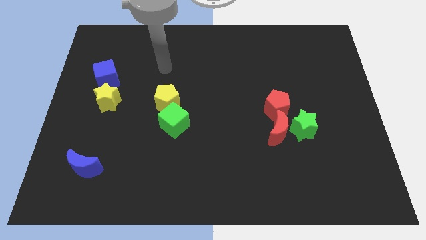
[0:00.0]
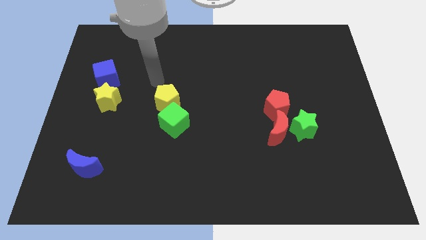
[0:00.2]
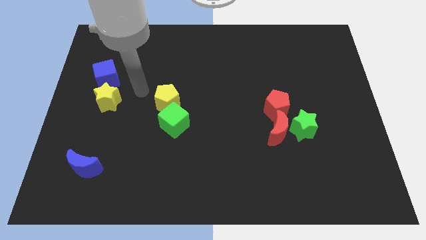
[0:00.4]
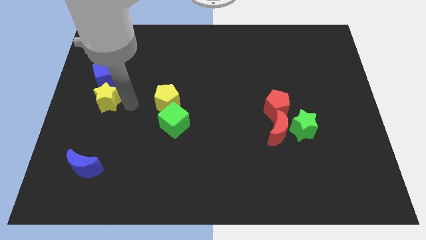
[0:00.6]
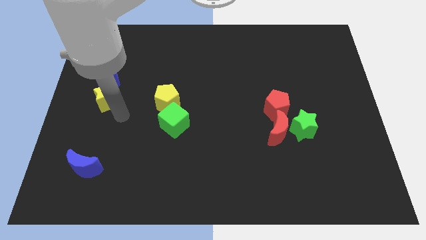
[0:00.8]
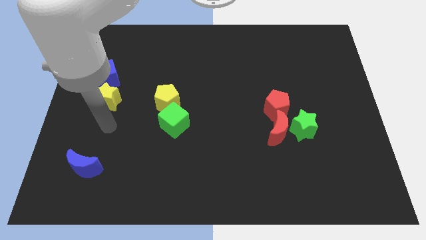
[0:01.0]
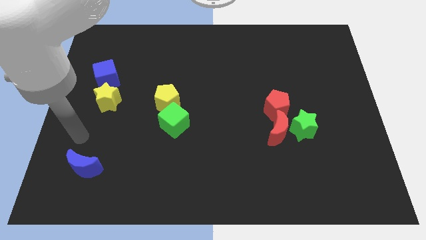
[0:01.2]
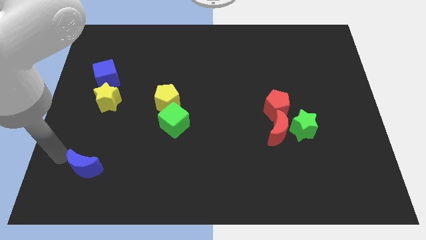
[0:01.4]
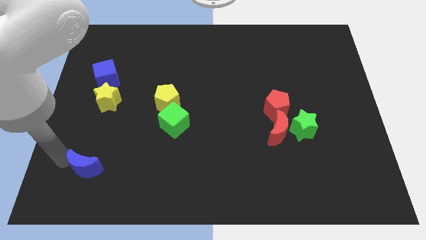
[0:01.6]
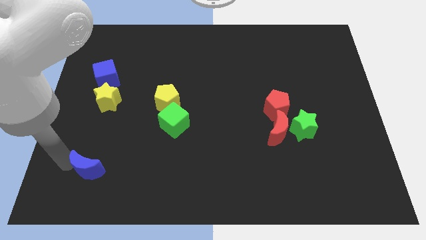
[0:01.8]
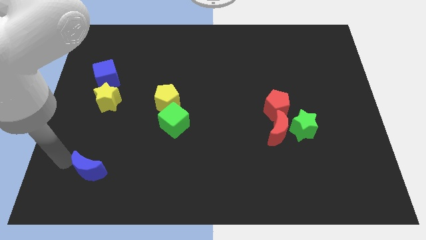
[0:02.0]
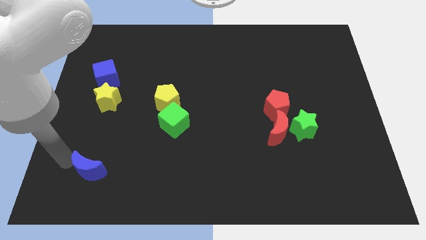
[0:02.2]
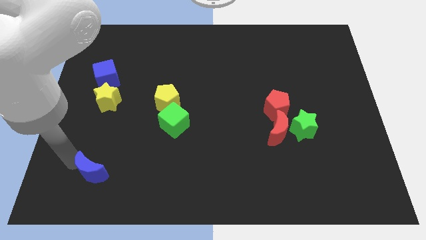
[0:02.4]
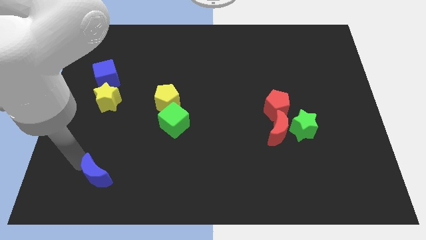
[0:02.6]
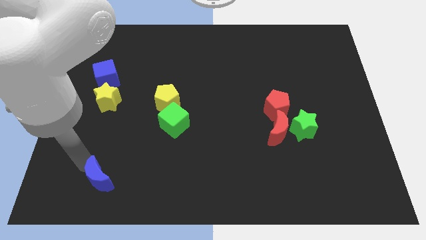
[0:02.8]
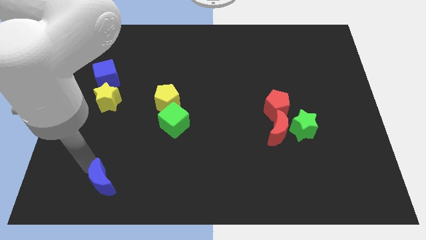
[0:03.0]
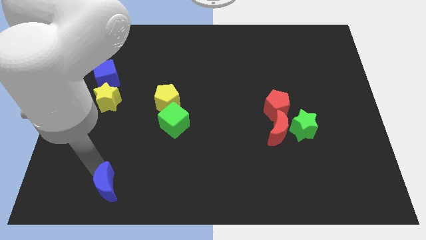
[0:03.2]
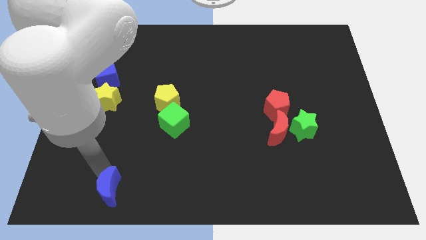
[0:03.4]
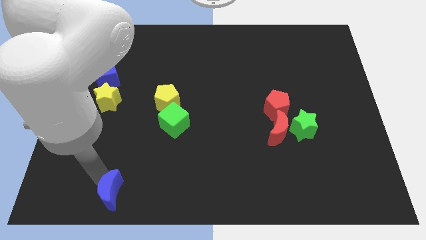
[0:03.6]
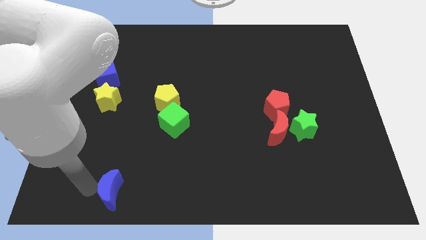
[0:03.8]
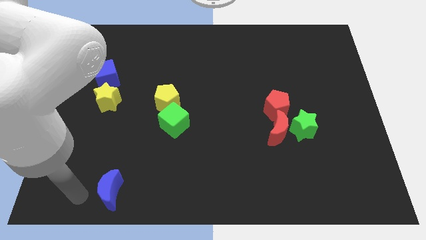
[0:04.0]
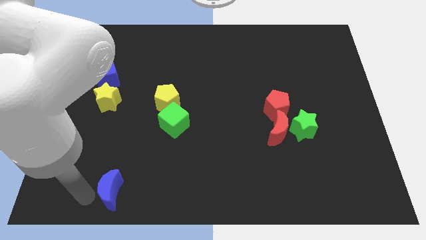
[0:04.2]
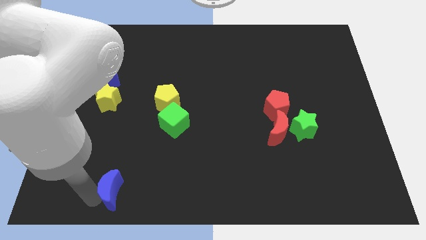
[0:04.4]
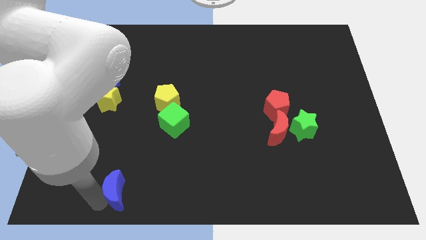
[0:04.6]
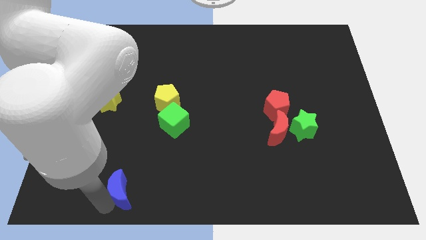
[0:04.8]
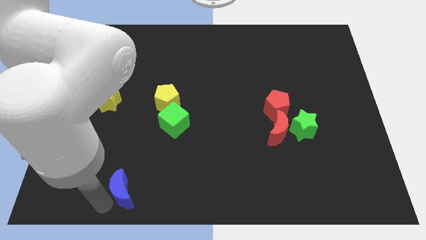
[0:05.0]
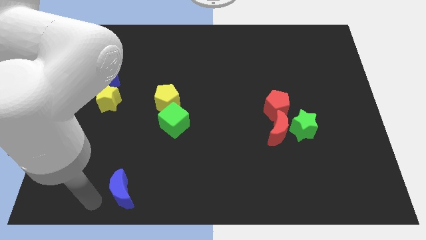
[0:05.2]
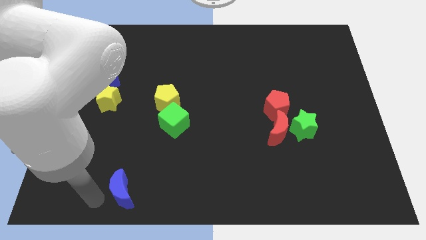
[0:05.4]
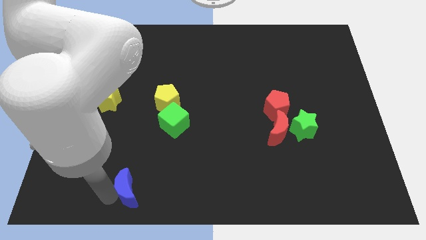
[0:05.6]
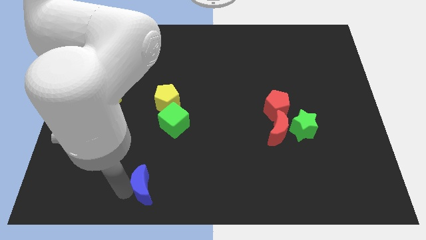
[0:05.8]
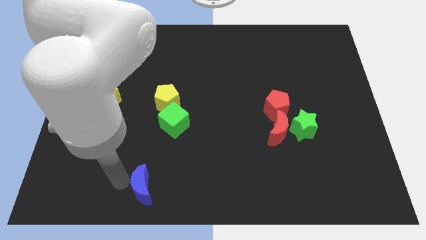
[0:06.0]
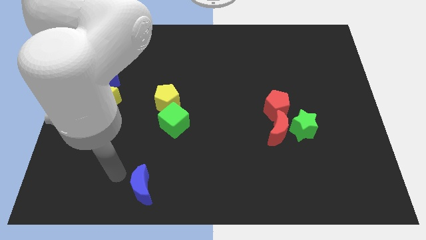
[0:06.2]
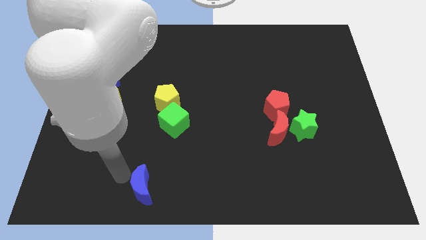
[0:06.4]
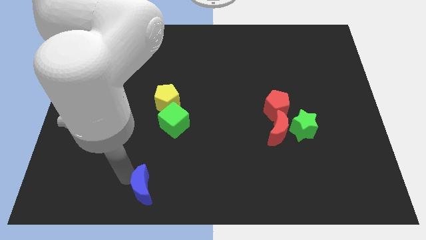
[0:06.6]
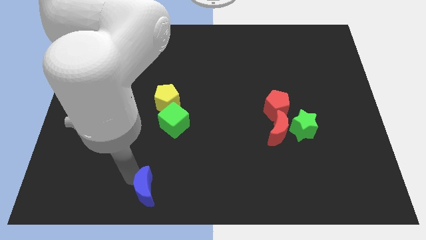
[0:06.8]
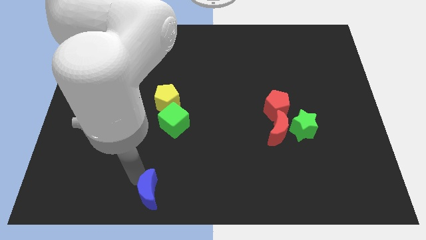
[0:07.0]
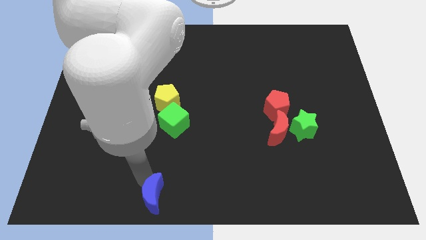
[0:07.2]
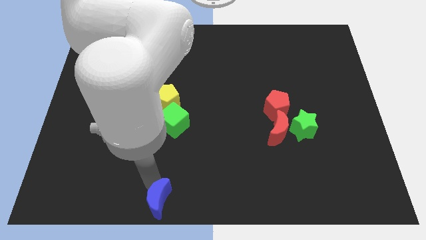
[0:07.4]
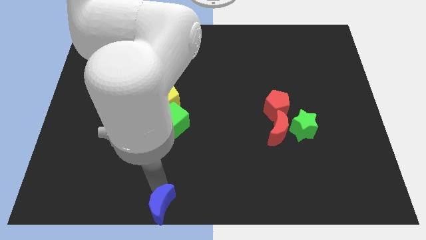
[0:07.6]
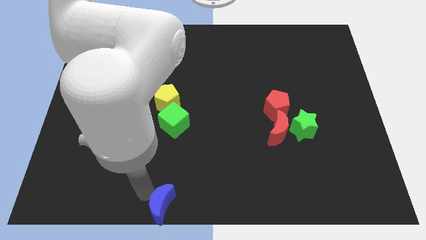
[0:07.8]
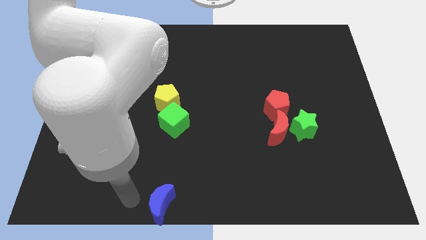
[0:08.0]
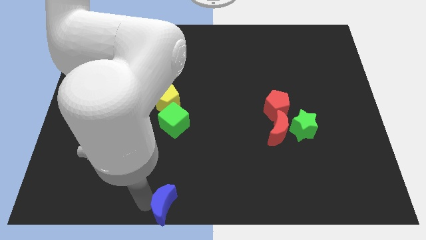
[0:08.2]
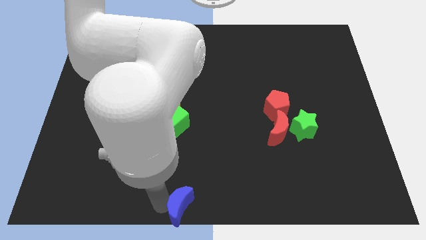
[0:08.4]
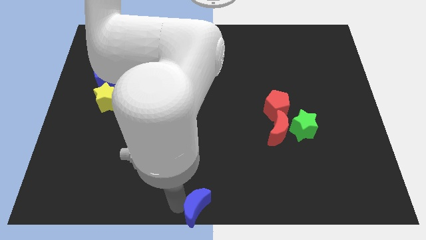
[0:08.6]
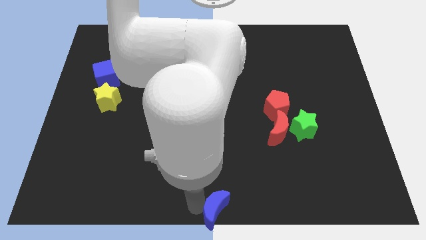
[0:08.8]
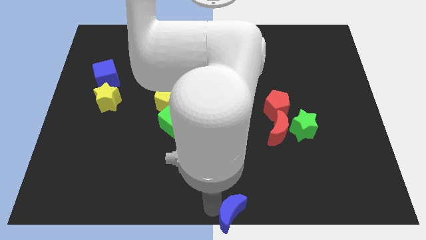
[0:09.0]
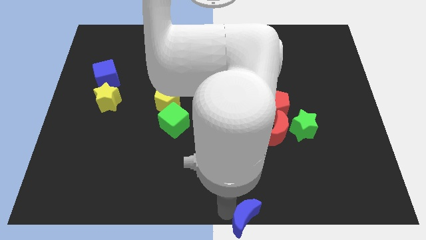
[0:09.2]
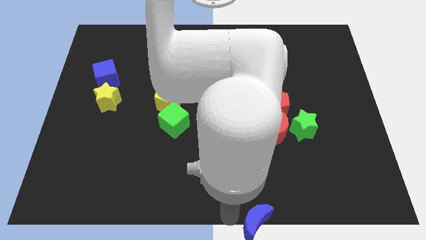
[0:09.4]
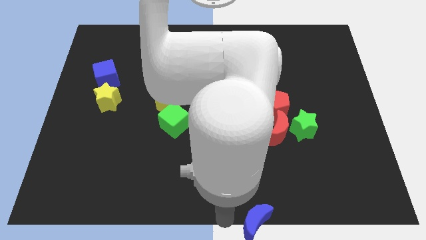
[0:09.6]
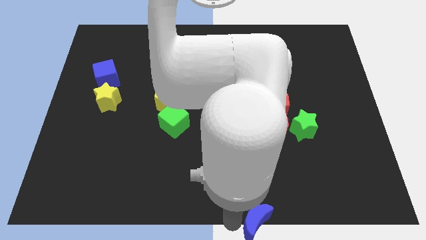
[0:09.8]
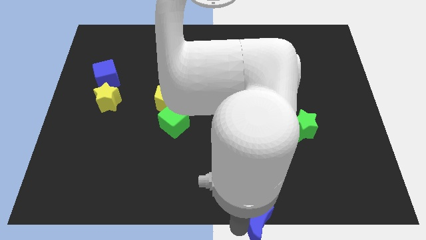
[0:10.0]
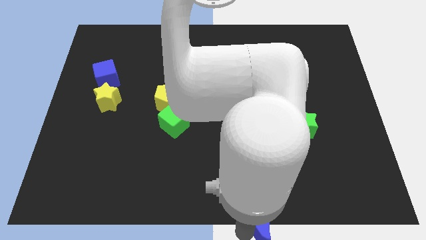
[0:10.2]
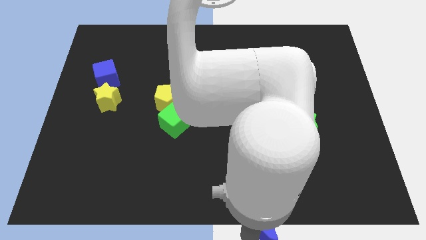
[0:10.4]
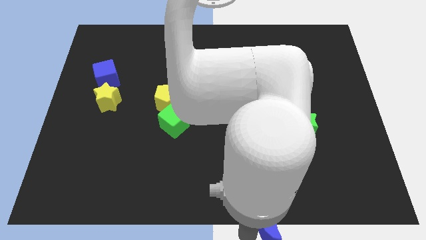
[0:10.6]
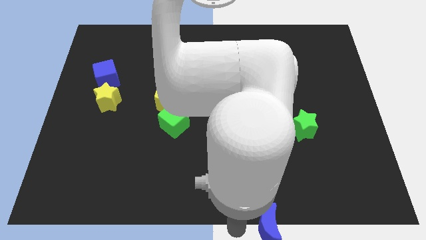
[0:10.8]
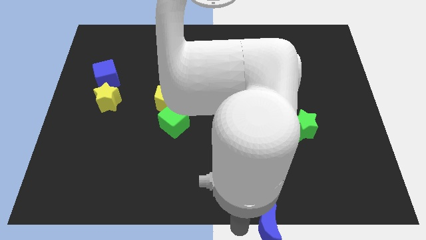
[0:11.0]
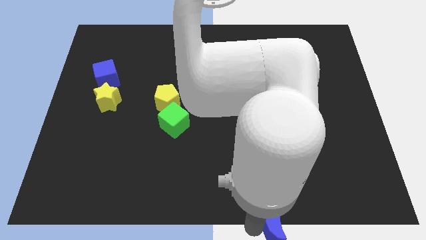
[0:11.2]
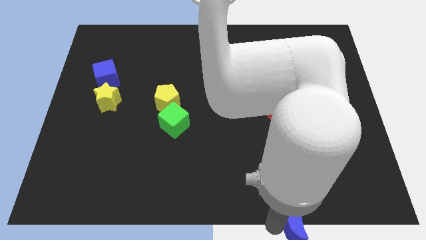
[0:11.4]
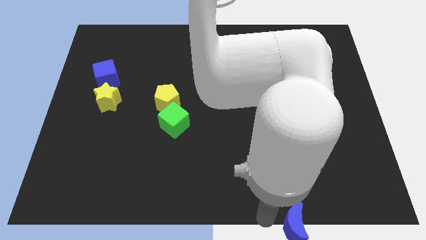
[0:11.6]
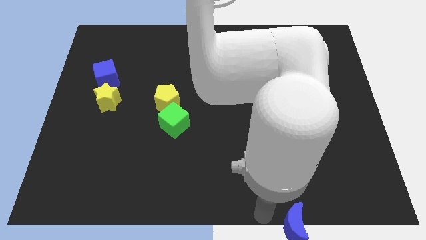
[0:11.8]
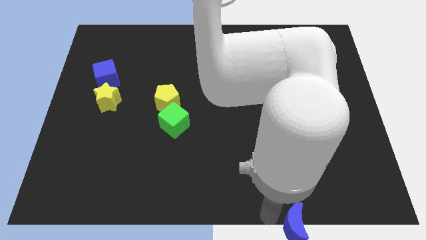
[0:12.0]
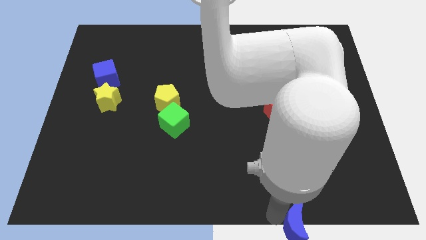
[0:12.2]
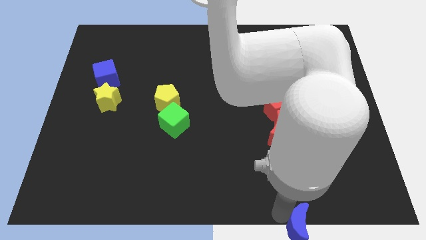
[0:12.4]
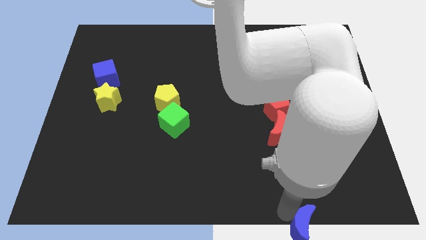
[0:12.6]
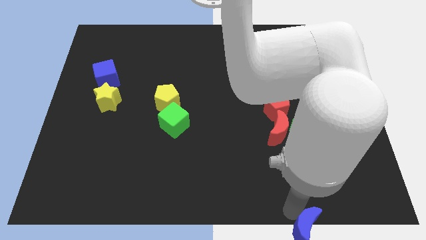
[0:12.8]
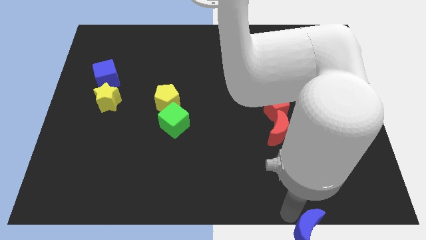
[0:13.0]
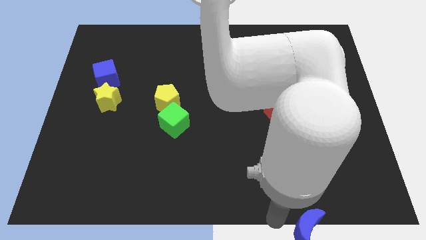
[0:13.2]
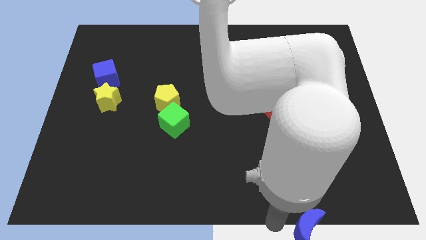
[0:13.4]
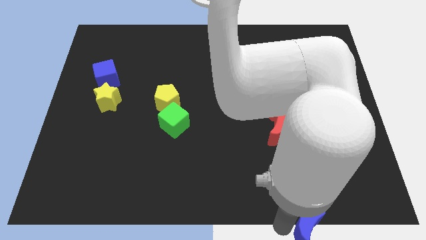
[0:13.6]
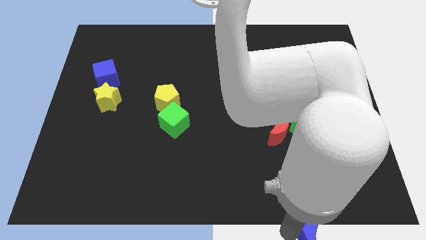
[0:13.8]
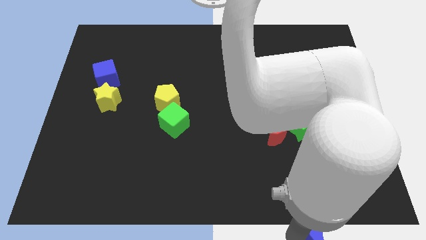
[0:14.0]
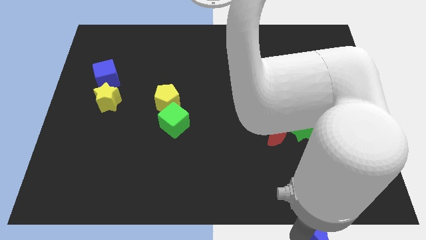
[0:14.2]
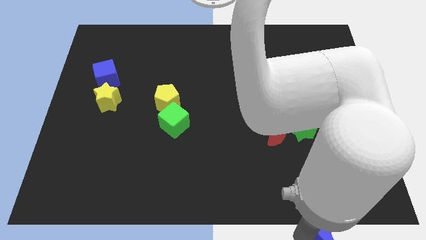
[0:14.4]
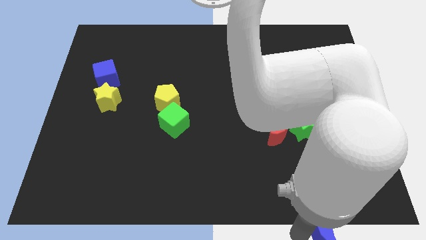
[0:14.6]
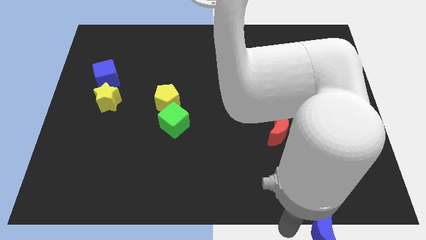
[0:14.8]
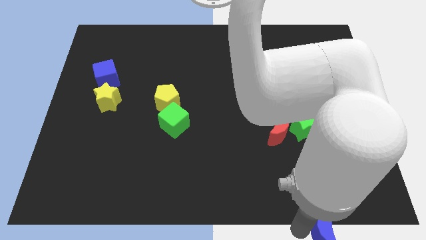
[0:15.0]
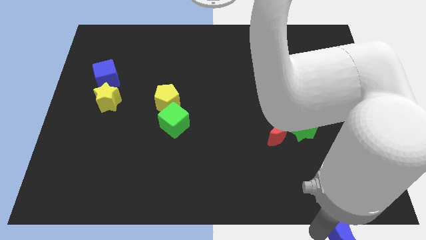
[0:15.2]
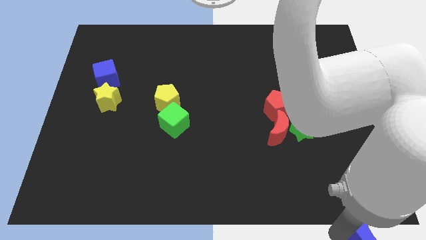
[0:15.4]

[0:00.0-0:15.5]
put the blue moon to the bottom right of the board
